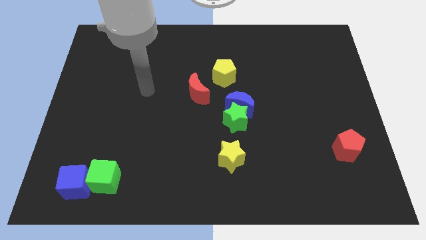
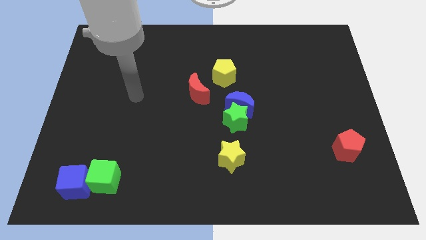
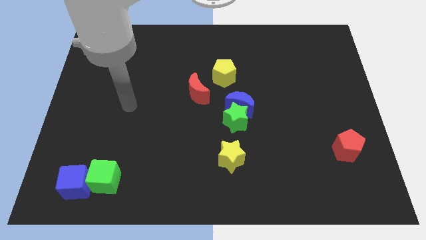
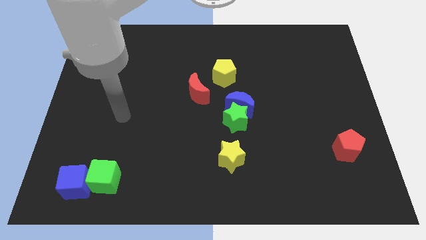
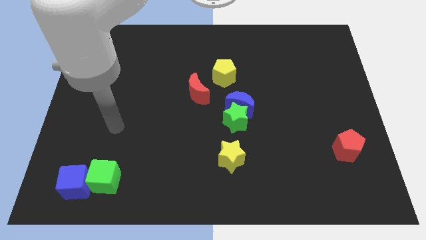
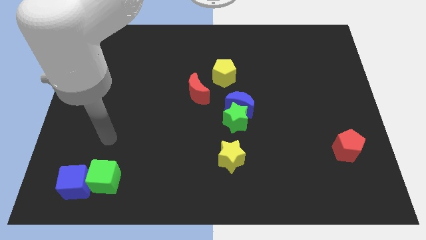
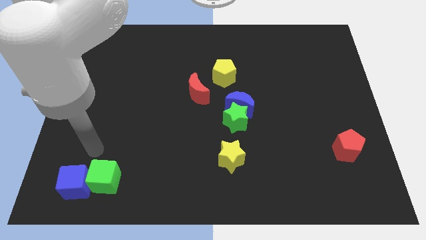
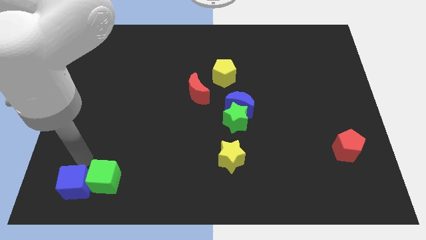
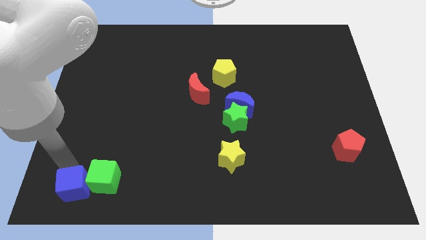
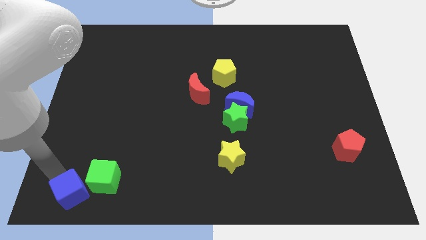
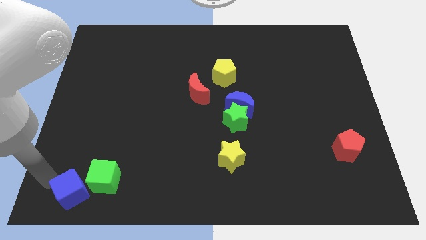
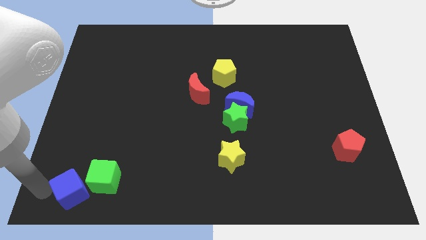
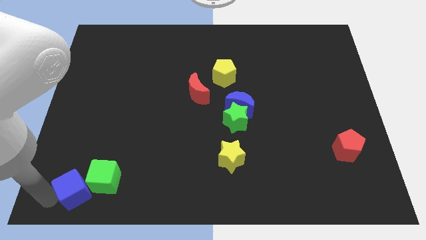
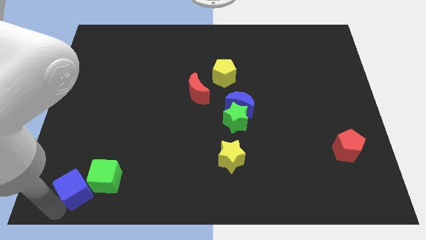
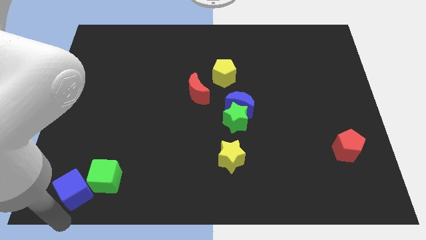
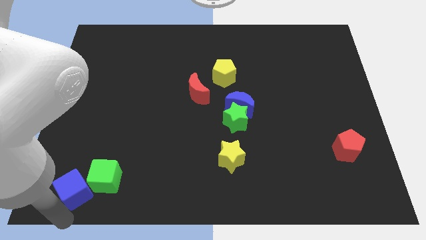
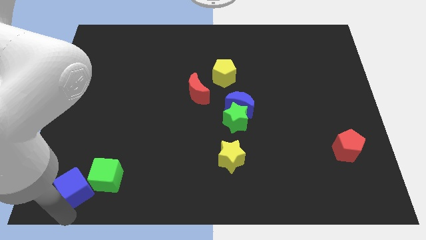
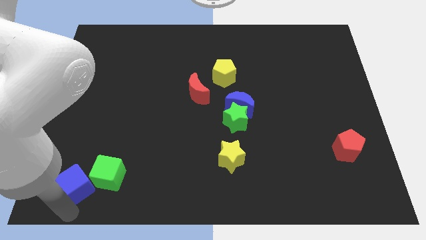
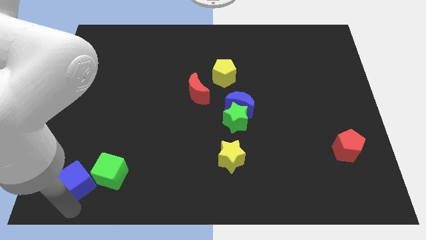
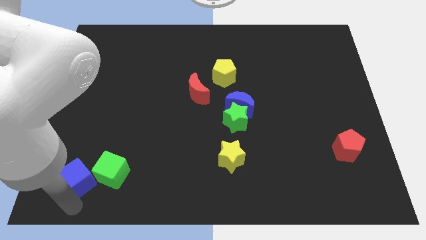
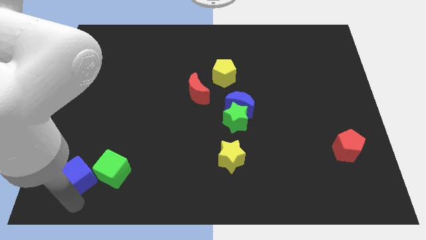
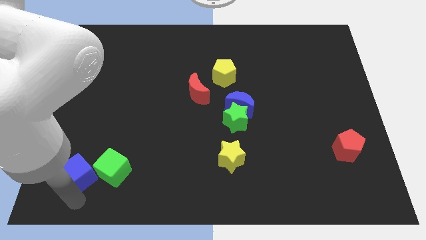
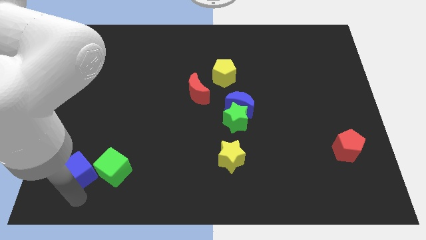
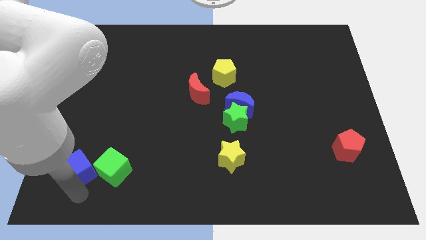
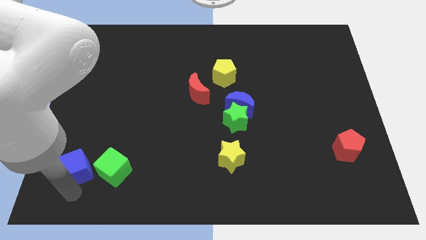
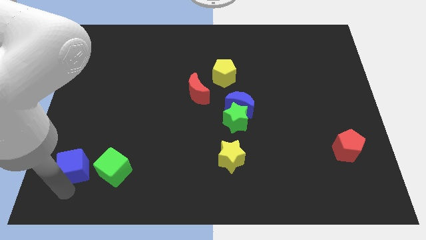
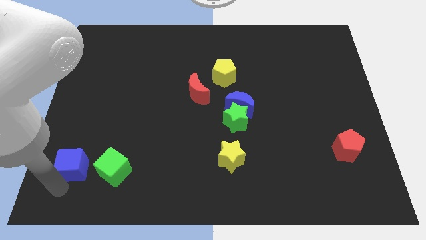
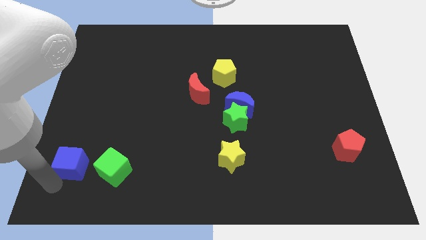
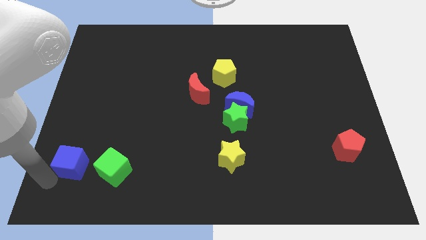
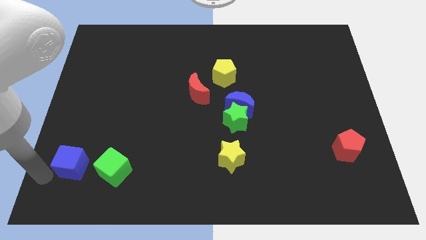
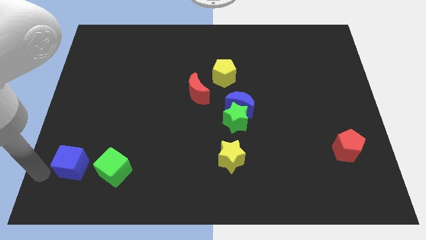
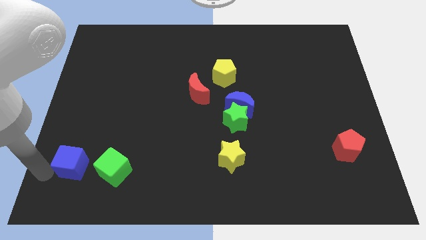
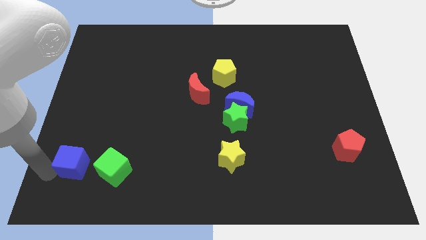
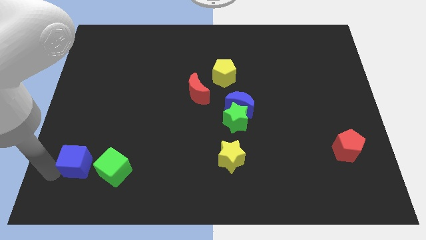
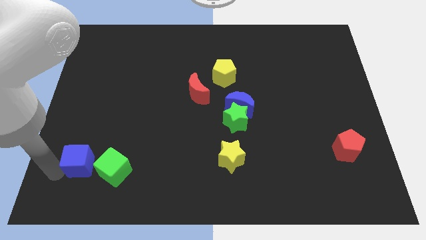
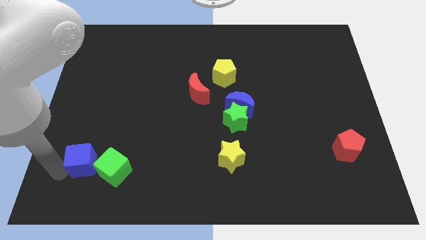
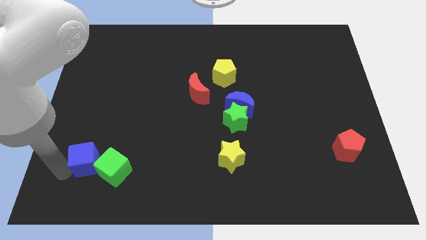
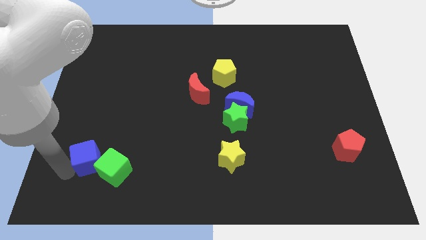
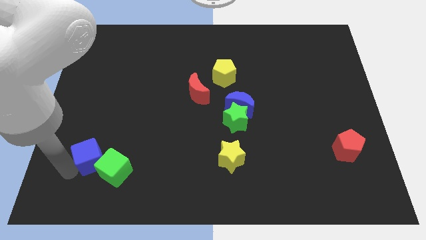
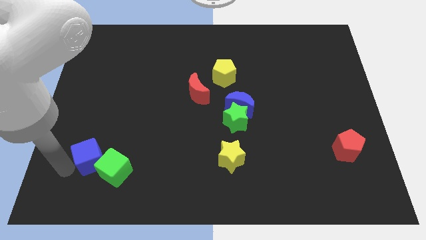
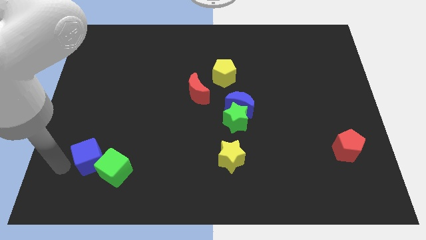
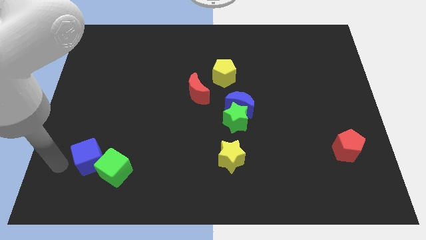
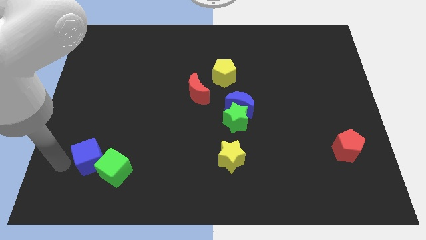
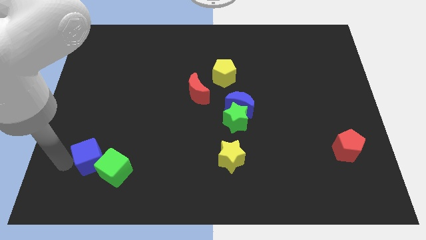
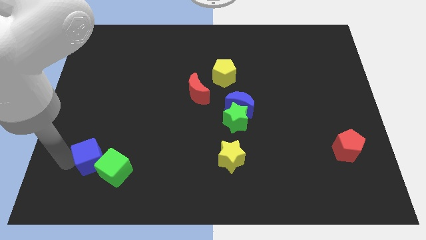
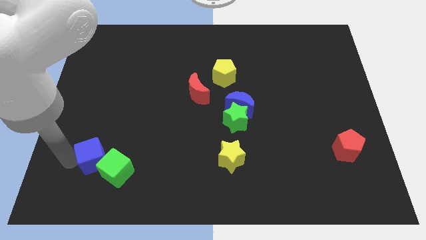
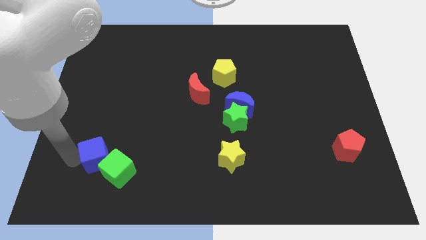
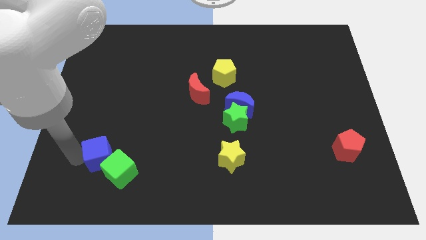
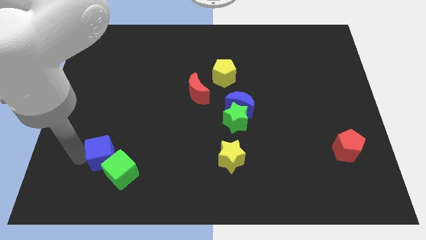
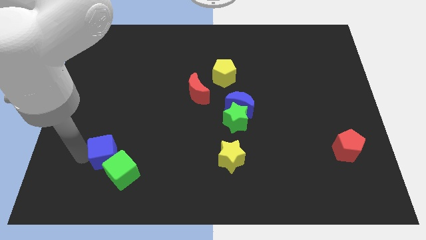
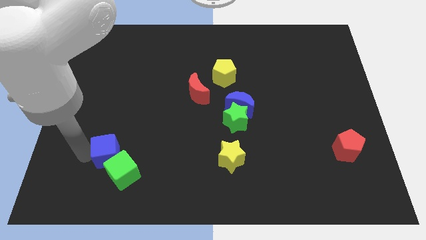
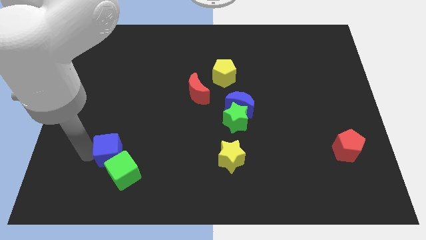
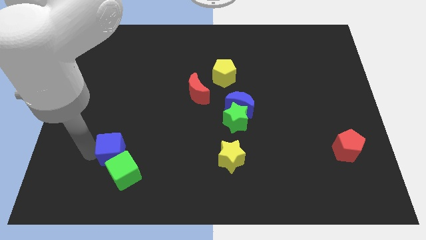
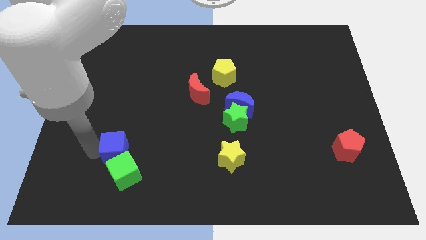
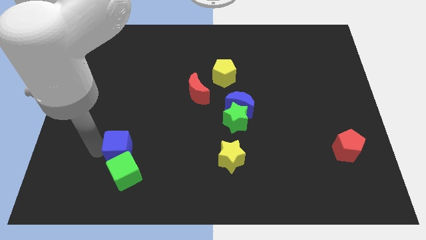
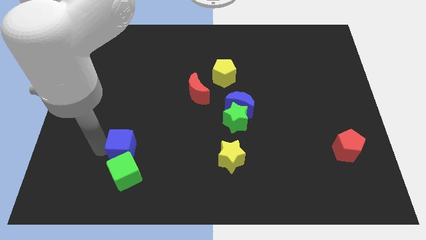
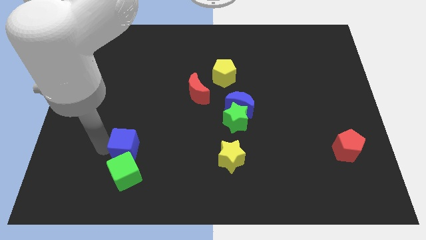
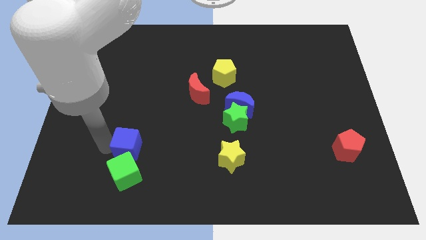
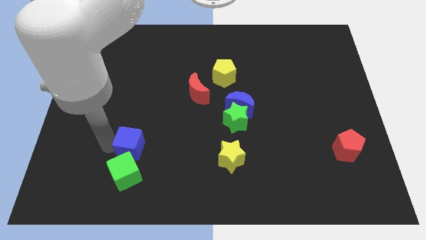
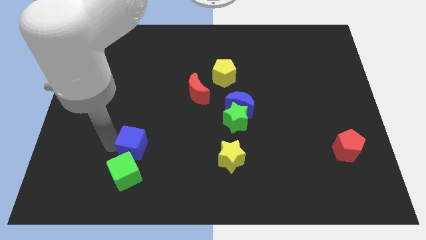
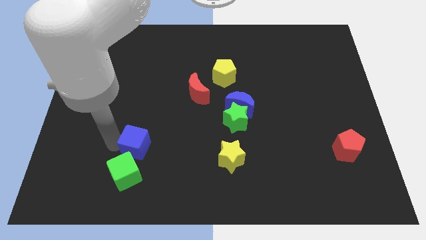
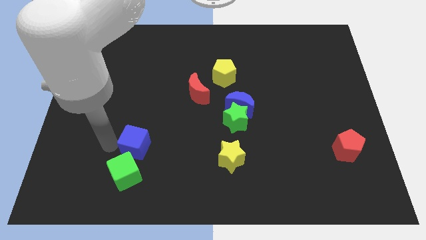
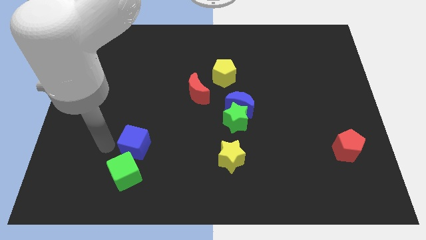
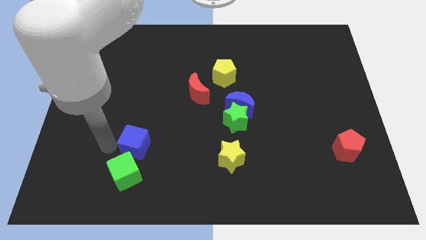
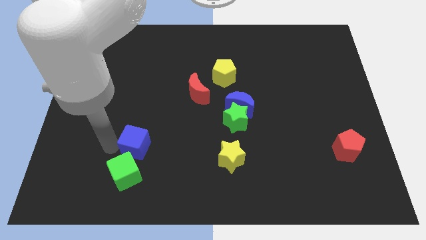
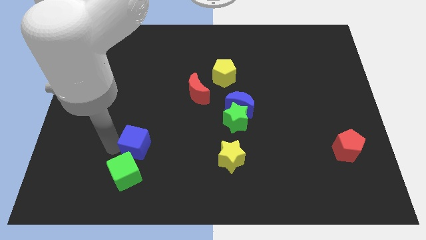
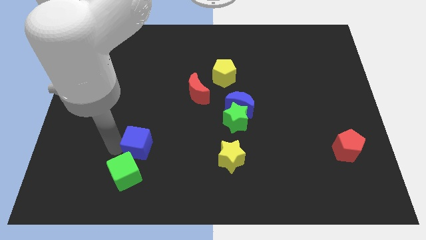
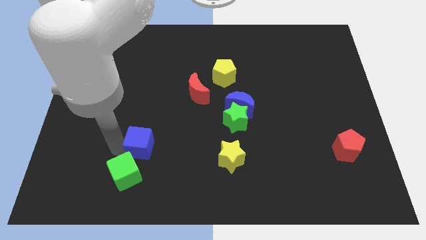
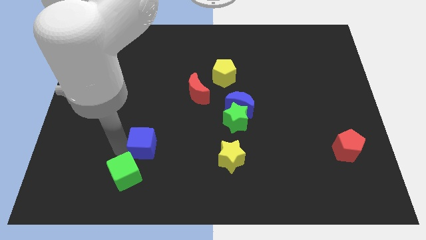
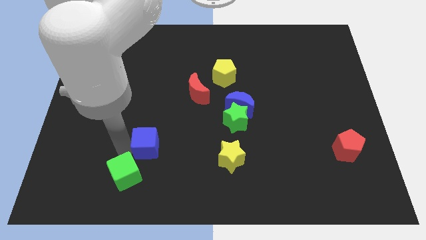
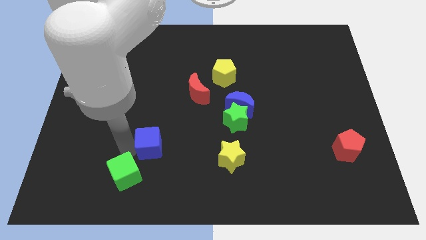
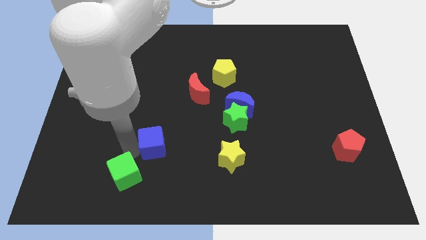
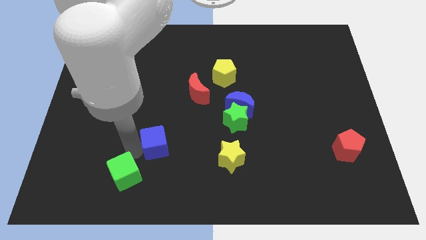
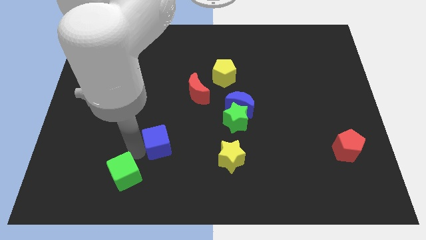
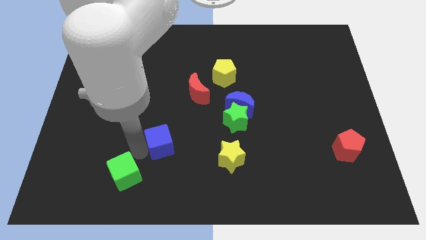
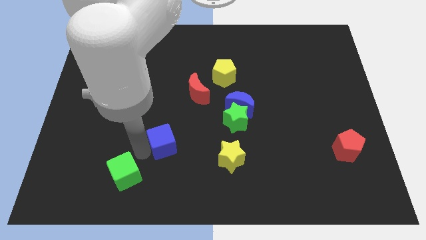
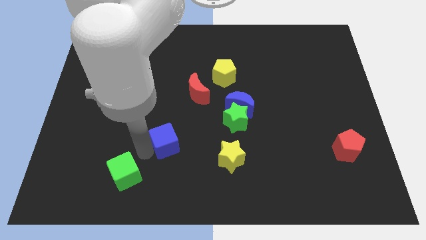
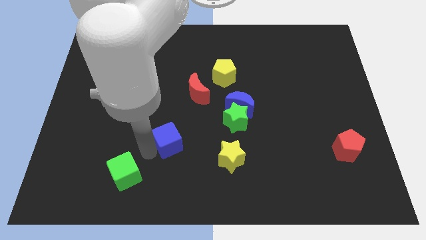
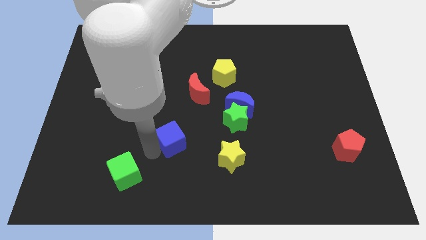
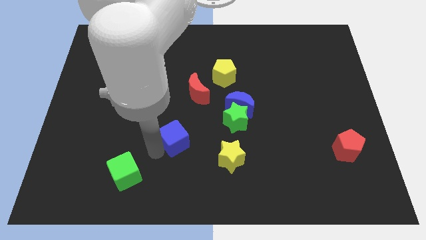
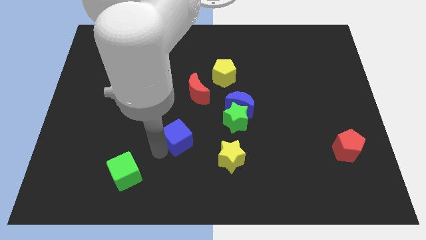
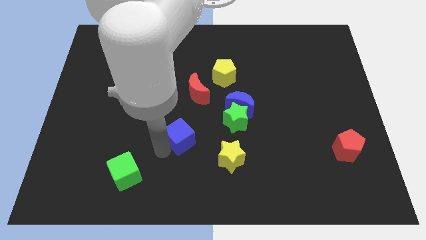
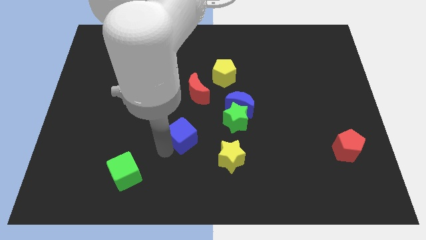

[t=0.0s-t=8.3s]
slide the blue cube to the middle
